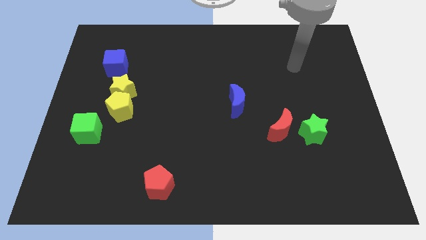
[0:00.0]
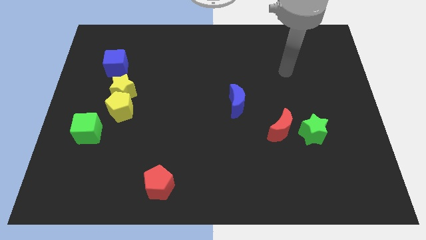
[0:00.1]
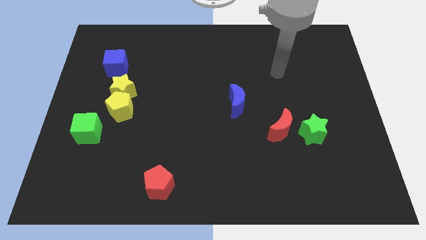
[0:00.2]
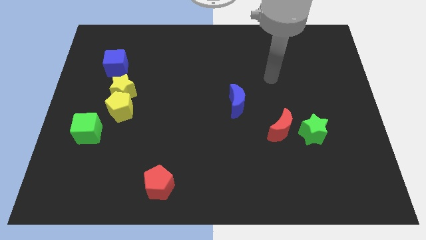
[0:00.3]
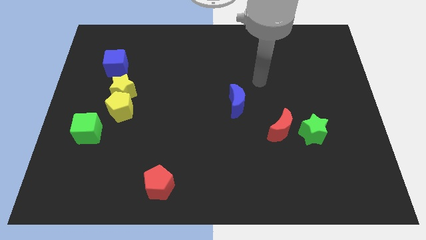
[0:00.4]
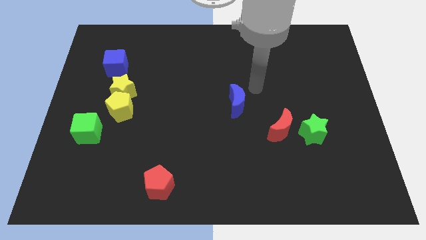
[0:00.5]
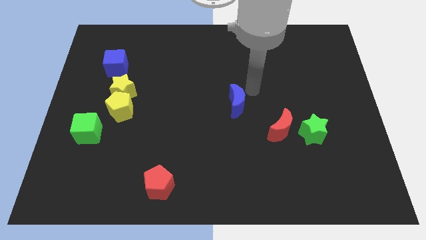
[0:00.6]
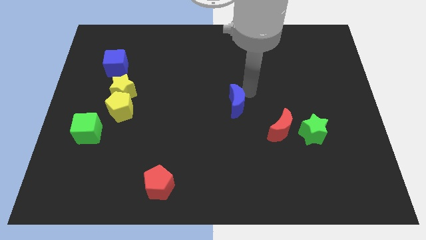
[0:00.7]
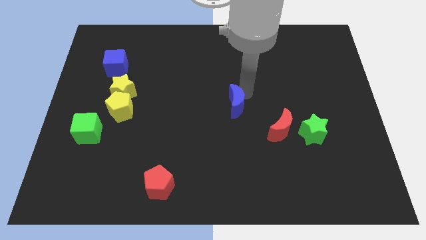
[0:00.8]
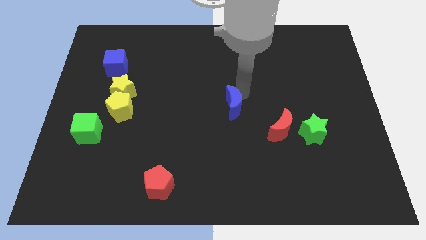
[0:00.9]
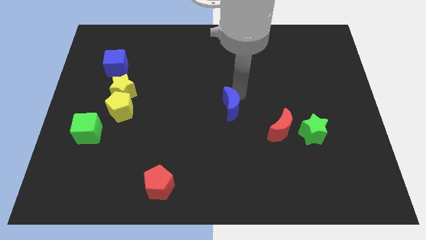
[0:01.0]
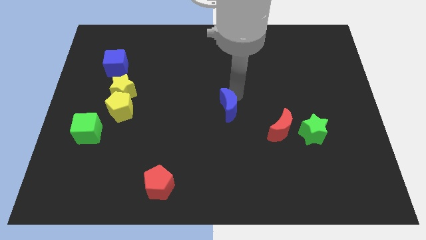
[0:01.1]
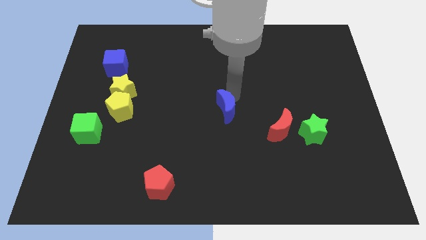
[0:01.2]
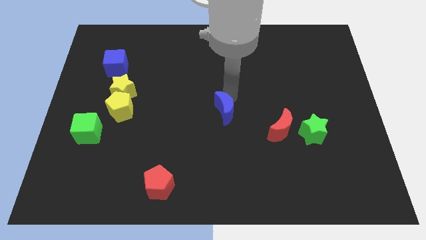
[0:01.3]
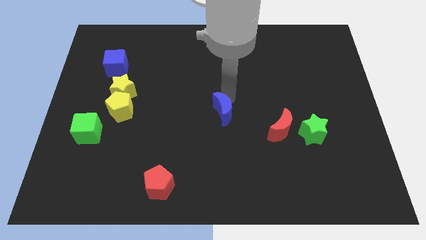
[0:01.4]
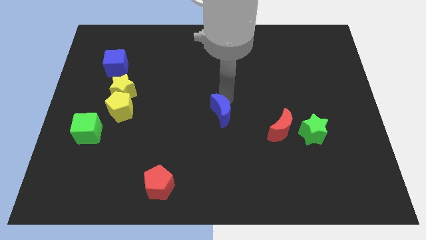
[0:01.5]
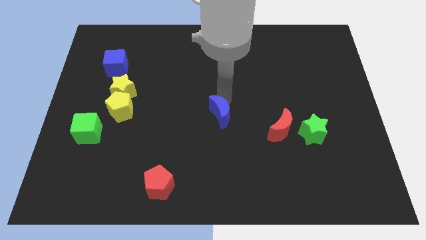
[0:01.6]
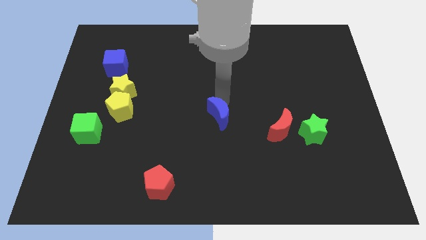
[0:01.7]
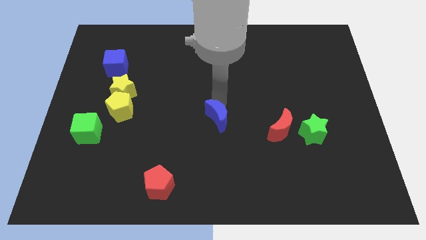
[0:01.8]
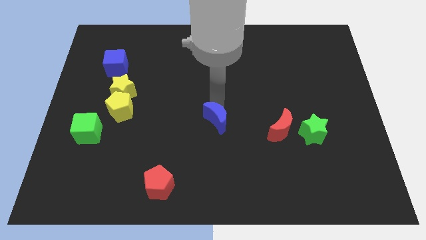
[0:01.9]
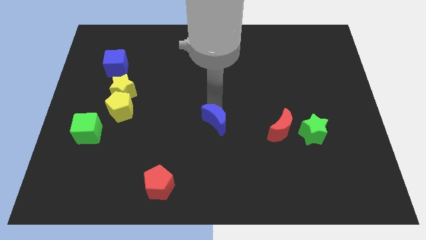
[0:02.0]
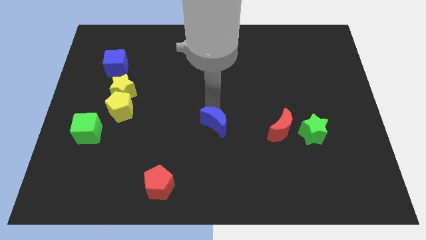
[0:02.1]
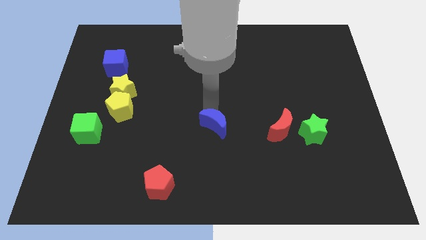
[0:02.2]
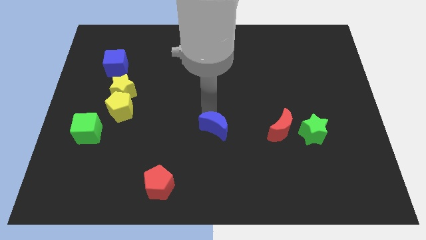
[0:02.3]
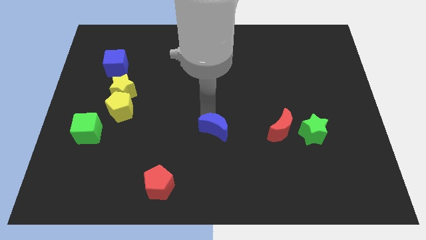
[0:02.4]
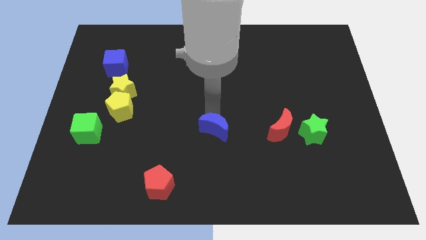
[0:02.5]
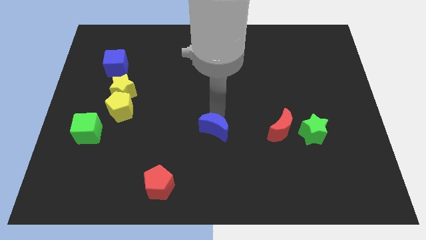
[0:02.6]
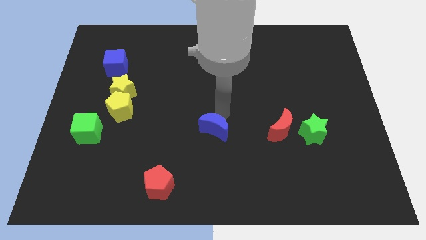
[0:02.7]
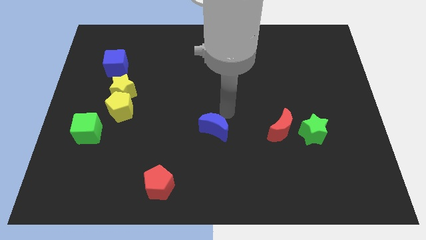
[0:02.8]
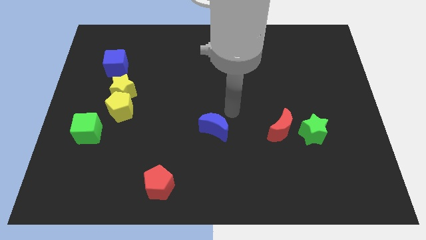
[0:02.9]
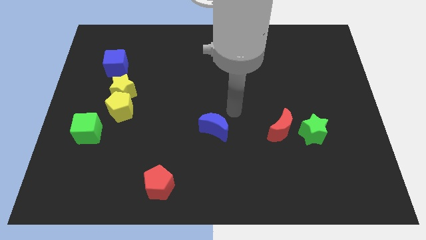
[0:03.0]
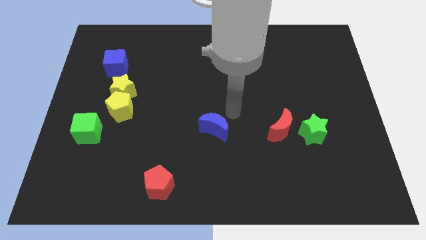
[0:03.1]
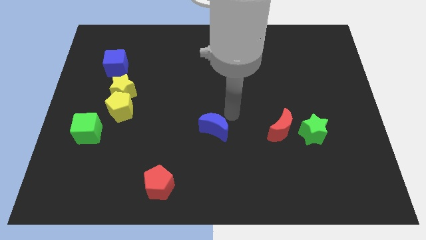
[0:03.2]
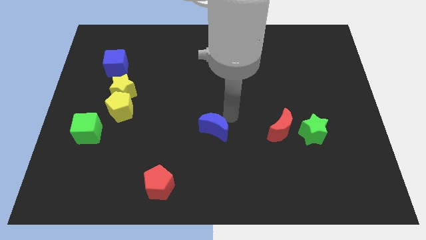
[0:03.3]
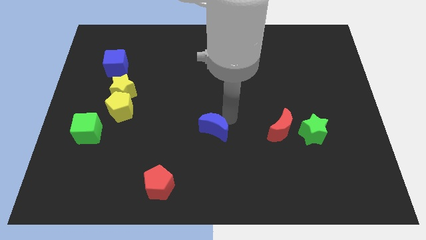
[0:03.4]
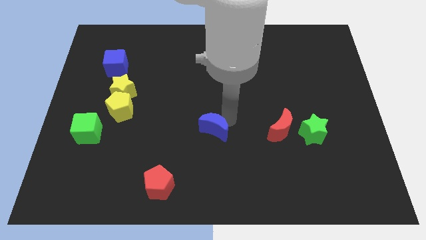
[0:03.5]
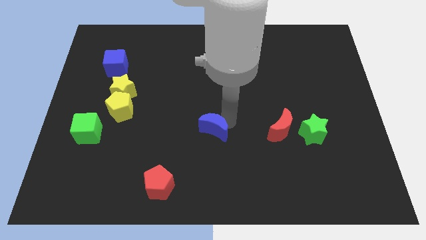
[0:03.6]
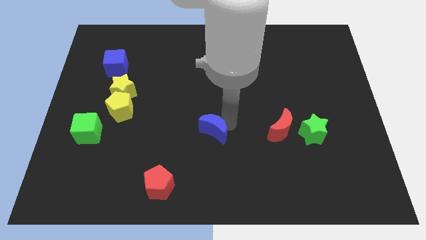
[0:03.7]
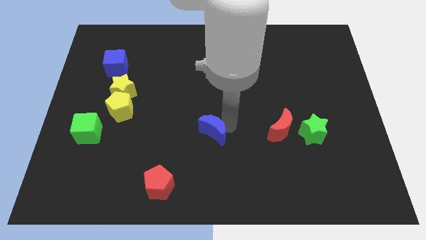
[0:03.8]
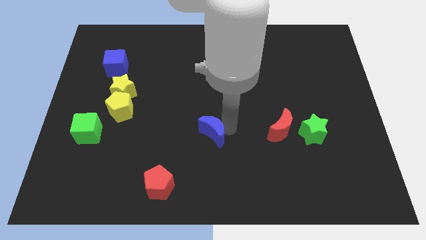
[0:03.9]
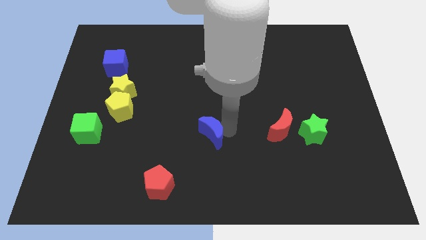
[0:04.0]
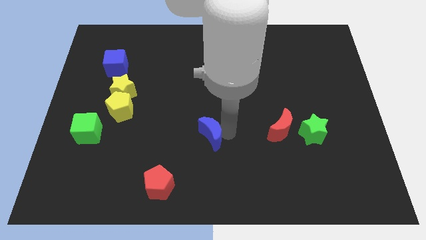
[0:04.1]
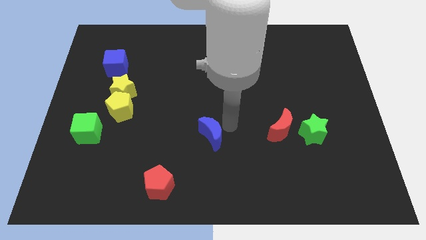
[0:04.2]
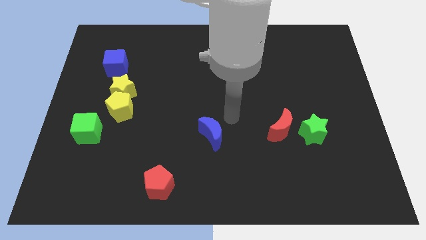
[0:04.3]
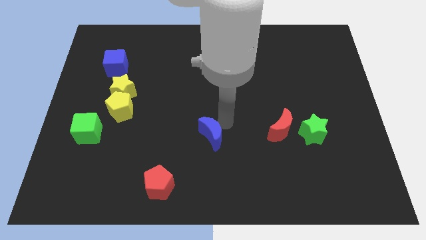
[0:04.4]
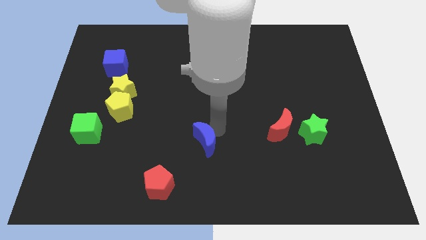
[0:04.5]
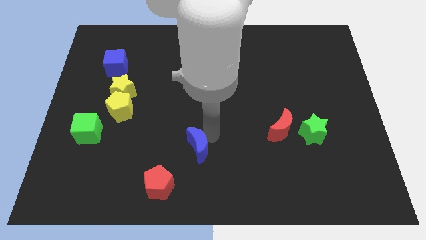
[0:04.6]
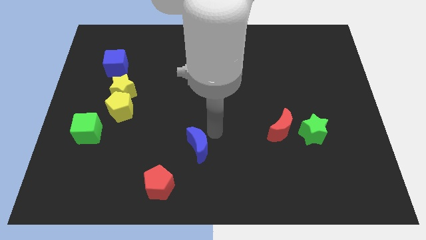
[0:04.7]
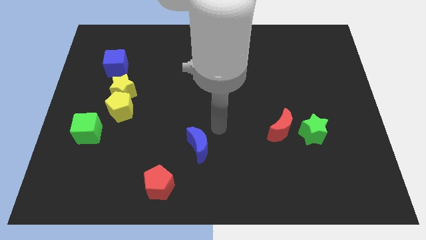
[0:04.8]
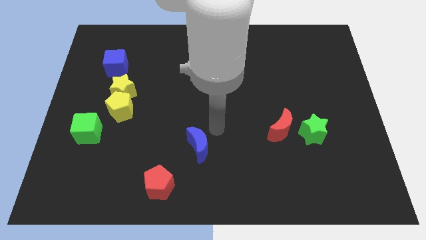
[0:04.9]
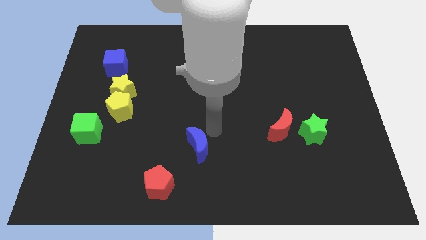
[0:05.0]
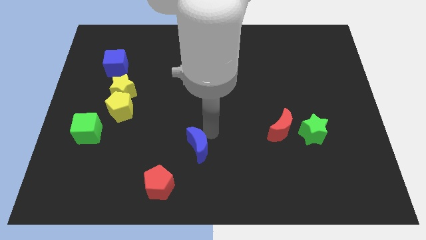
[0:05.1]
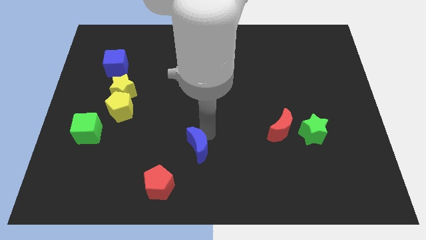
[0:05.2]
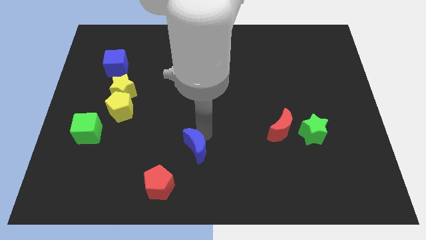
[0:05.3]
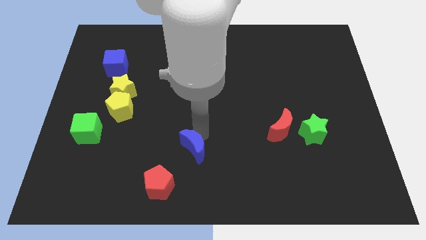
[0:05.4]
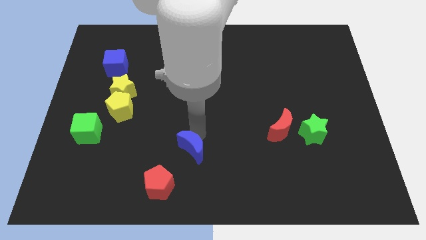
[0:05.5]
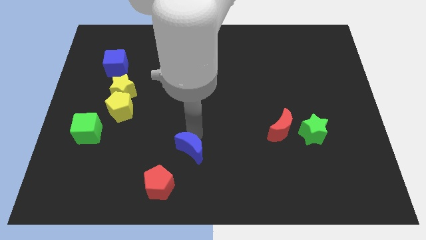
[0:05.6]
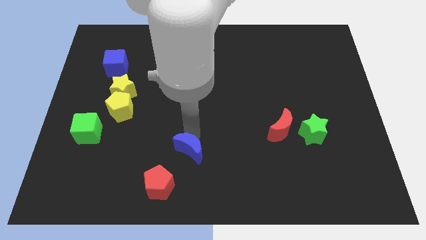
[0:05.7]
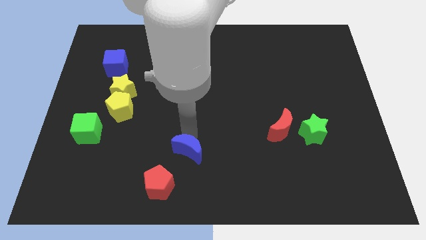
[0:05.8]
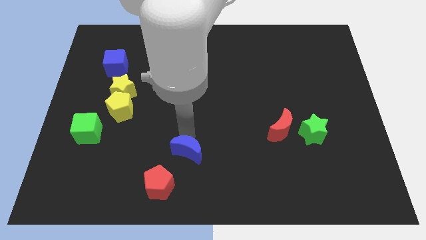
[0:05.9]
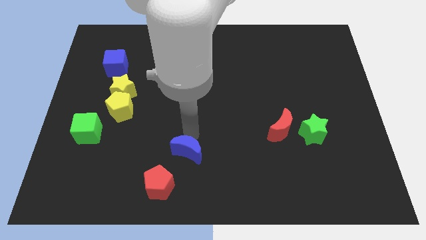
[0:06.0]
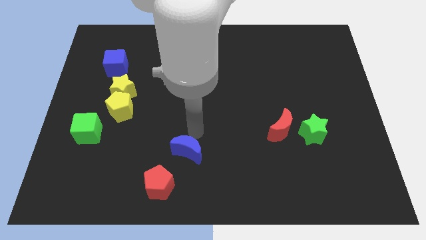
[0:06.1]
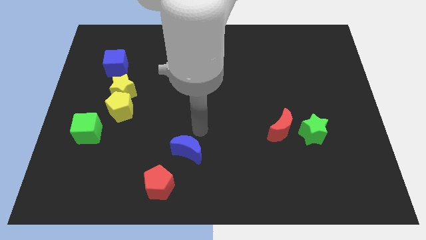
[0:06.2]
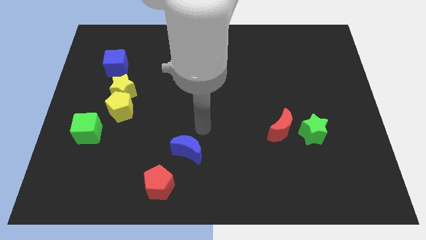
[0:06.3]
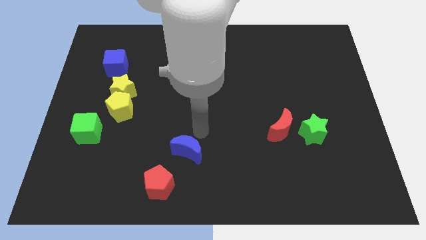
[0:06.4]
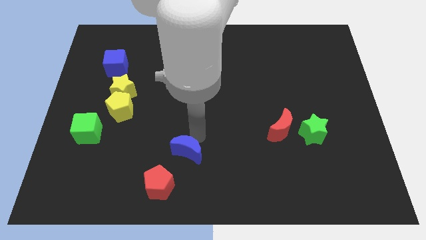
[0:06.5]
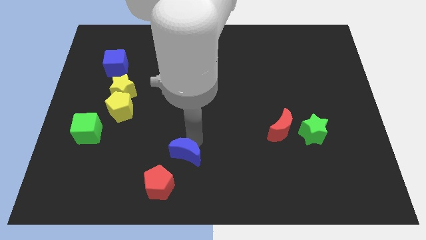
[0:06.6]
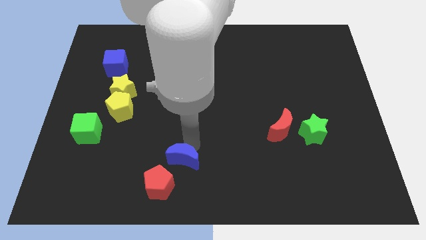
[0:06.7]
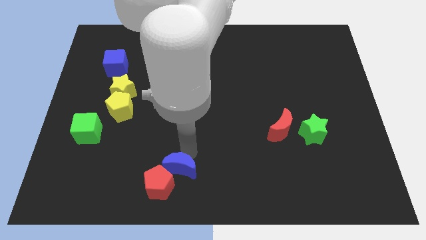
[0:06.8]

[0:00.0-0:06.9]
push the blue moon close to the red pentagon

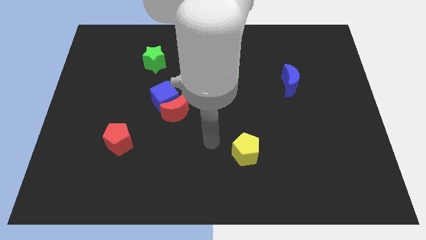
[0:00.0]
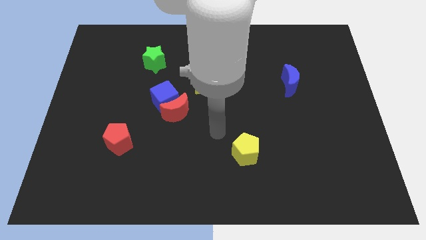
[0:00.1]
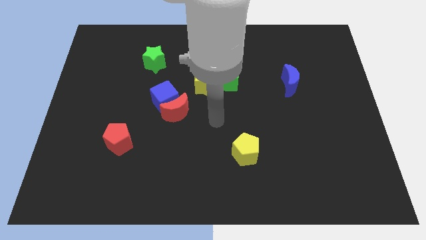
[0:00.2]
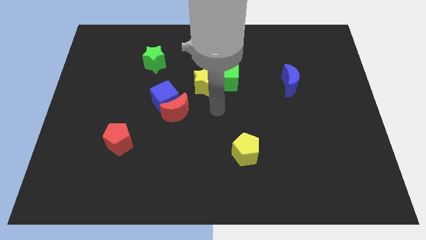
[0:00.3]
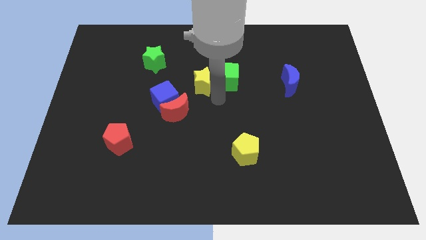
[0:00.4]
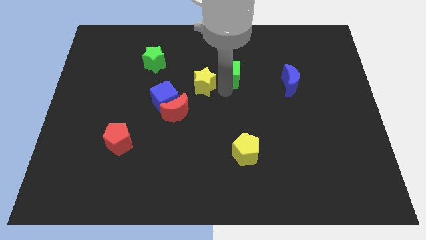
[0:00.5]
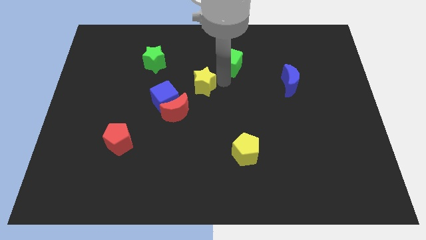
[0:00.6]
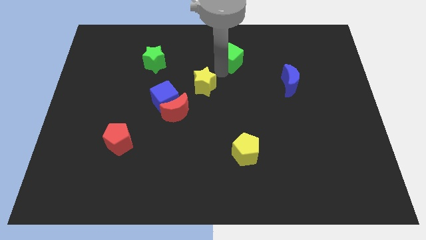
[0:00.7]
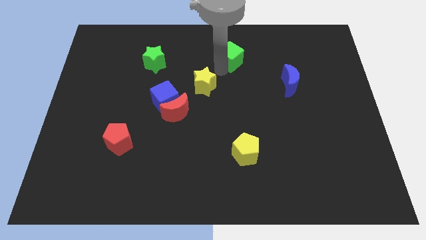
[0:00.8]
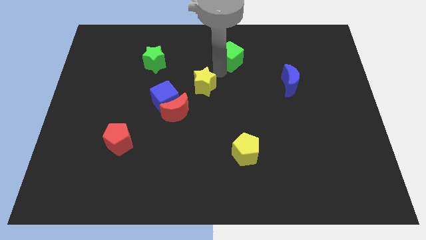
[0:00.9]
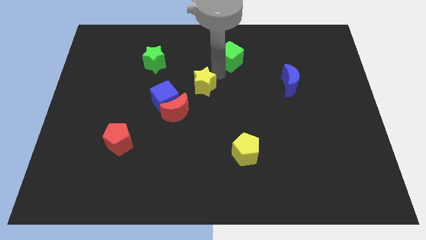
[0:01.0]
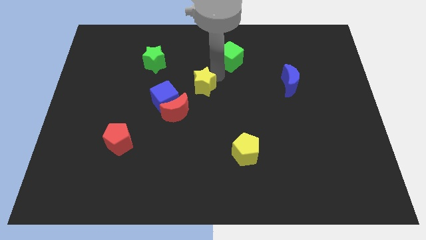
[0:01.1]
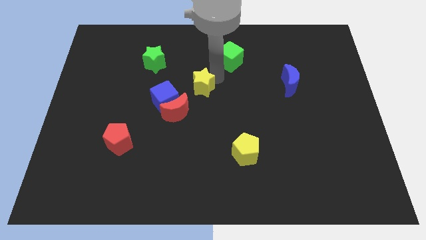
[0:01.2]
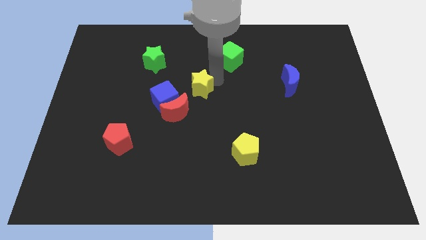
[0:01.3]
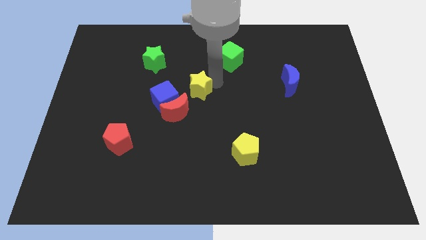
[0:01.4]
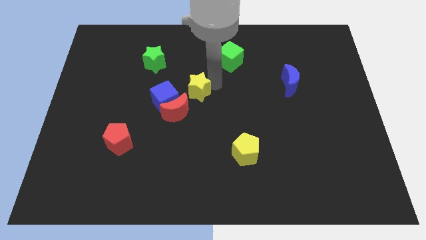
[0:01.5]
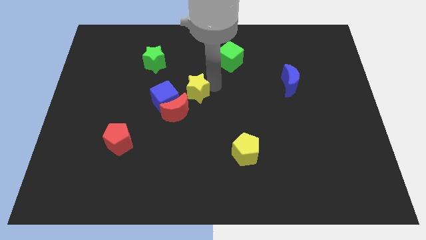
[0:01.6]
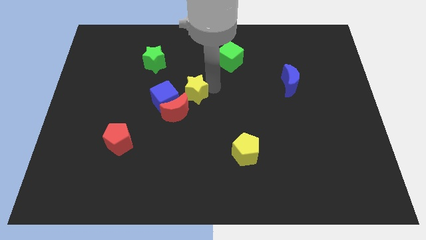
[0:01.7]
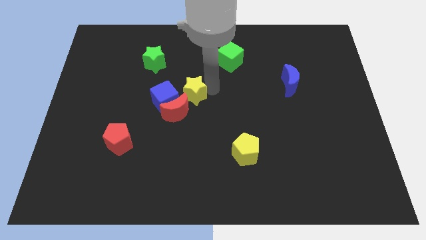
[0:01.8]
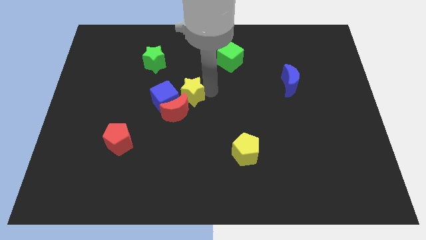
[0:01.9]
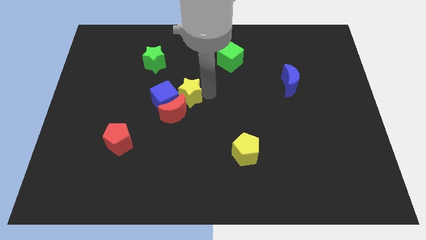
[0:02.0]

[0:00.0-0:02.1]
put the yellow star close to the red moon
